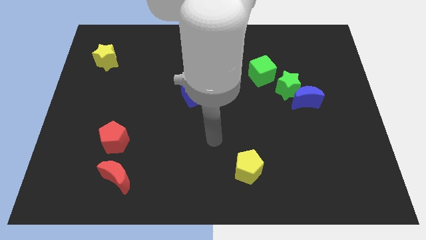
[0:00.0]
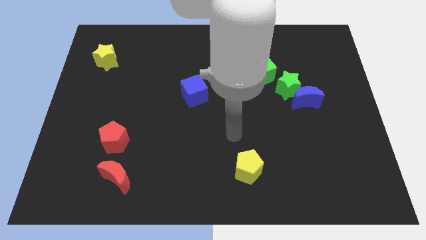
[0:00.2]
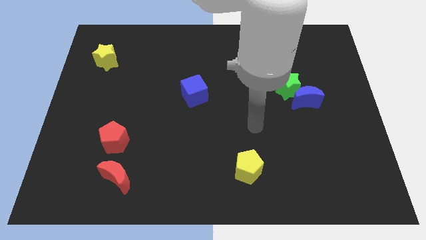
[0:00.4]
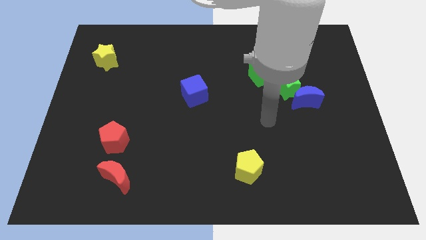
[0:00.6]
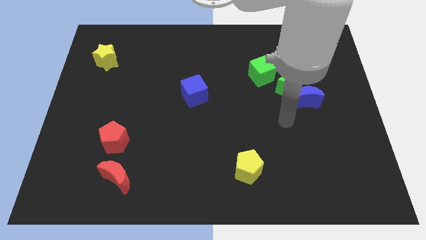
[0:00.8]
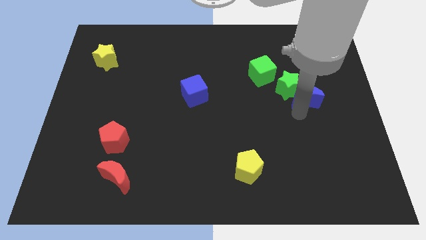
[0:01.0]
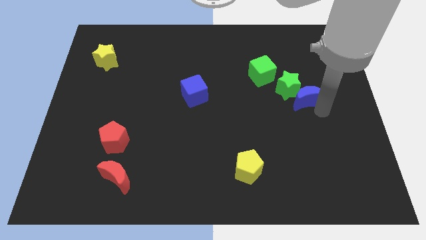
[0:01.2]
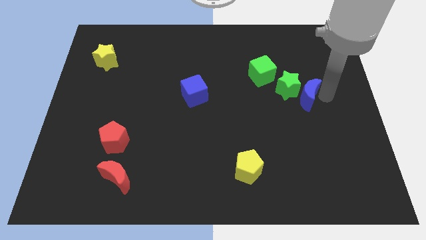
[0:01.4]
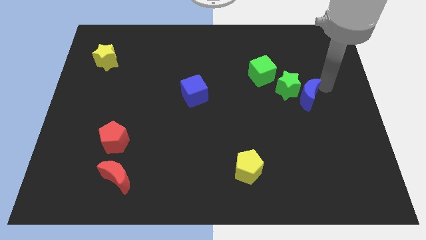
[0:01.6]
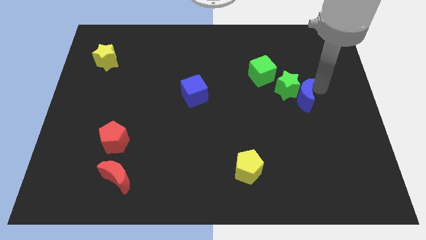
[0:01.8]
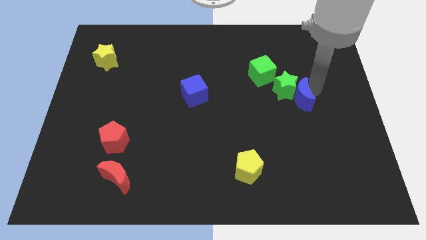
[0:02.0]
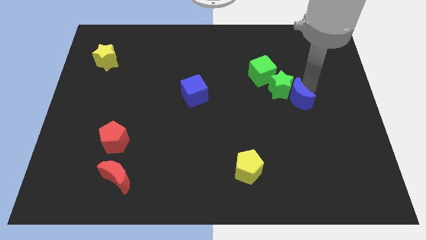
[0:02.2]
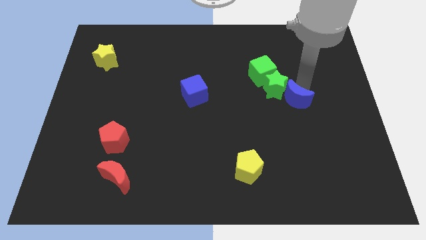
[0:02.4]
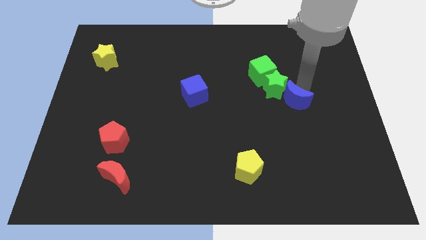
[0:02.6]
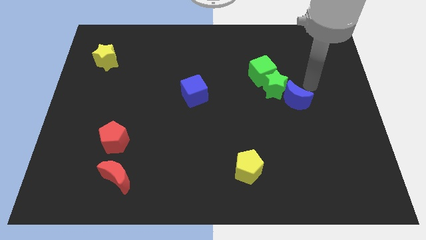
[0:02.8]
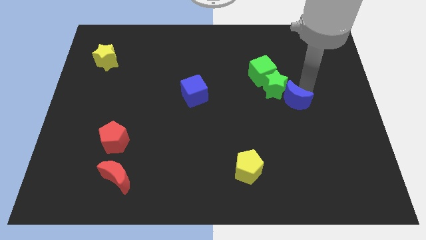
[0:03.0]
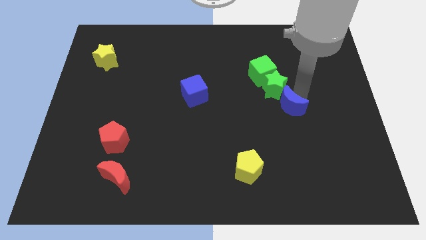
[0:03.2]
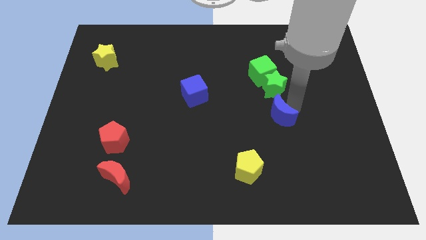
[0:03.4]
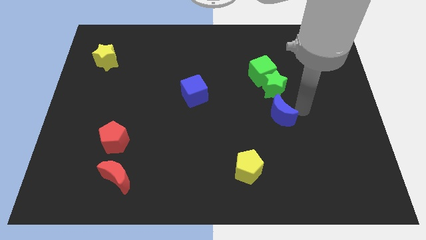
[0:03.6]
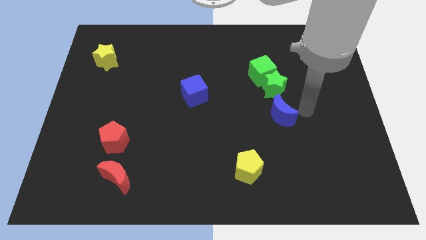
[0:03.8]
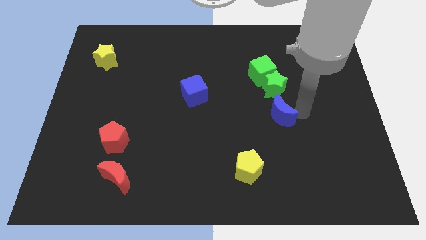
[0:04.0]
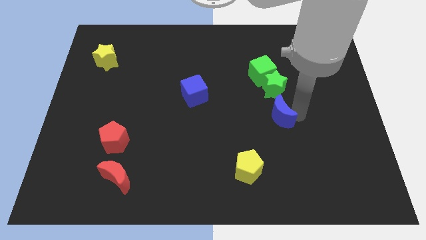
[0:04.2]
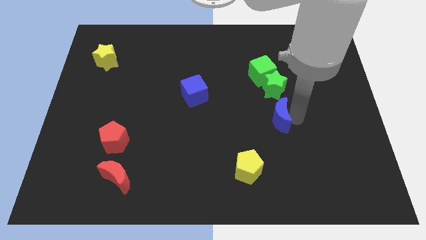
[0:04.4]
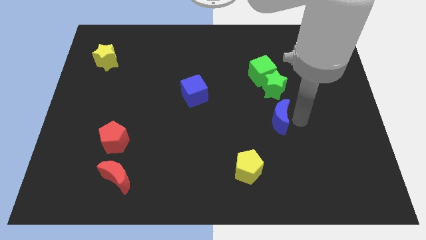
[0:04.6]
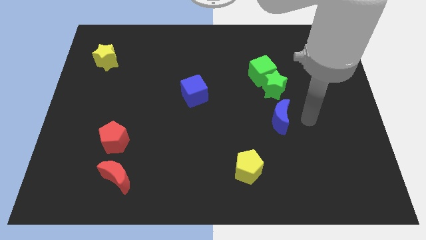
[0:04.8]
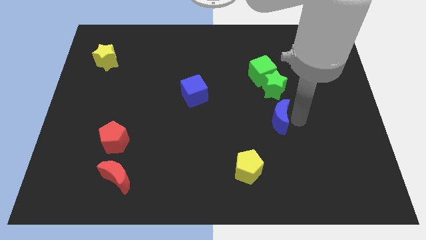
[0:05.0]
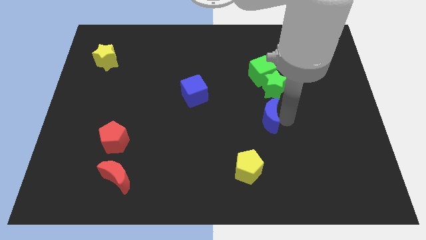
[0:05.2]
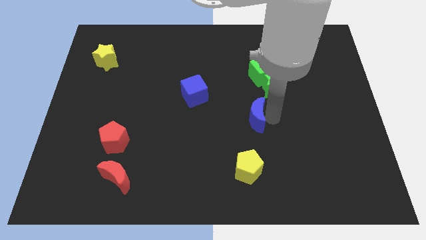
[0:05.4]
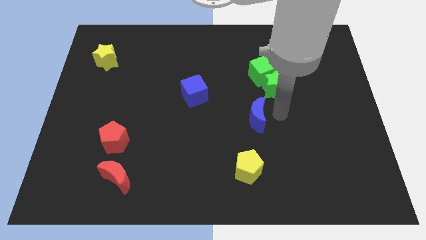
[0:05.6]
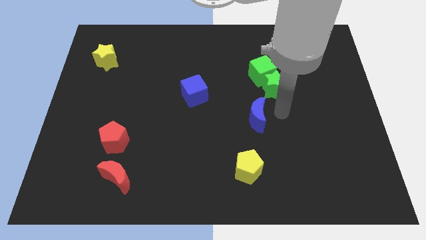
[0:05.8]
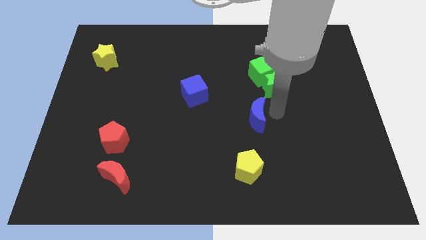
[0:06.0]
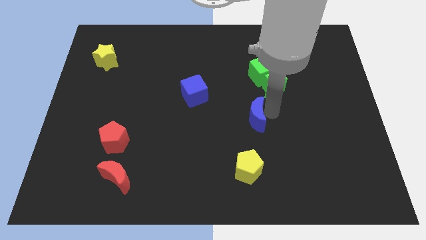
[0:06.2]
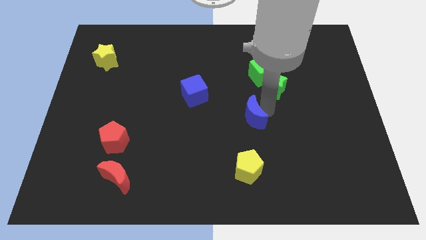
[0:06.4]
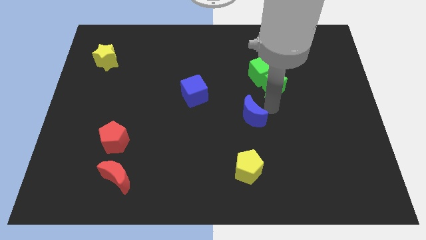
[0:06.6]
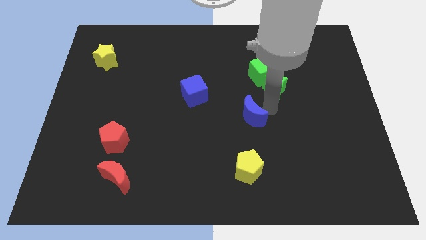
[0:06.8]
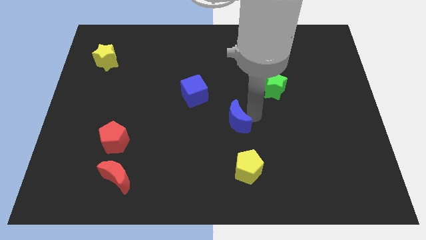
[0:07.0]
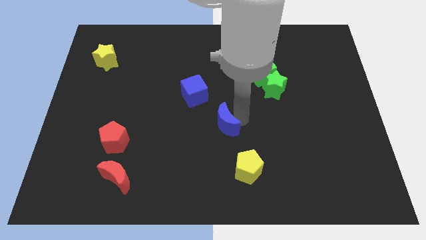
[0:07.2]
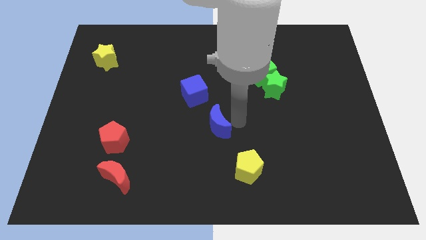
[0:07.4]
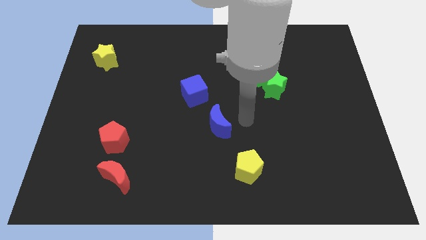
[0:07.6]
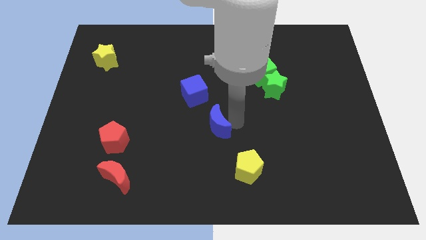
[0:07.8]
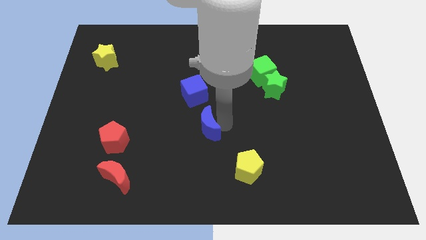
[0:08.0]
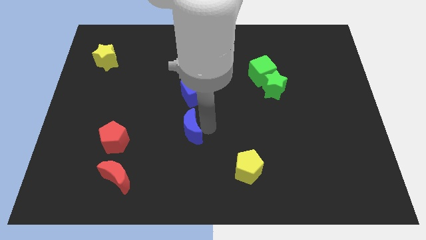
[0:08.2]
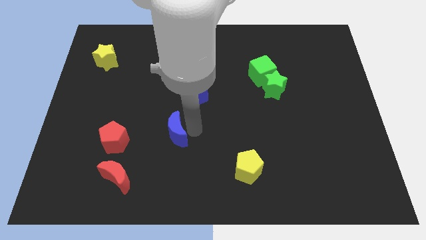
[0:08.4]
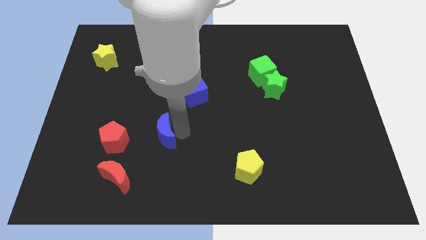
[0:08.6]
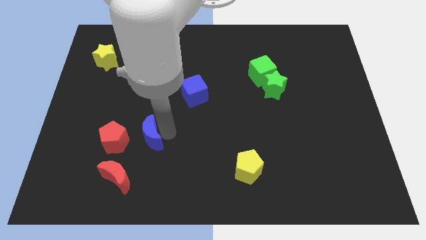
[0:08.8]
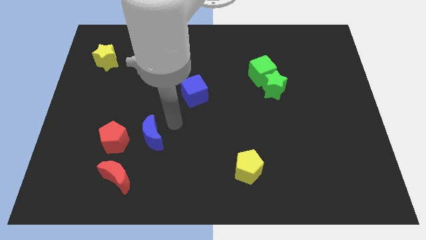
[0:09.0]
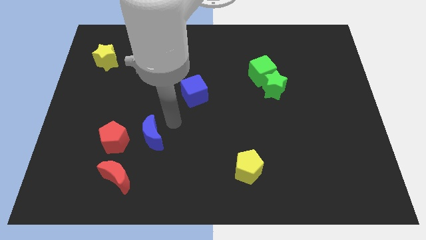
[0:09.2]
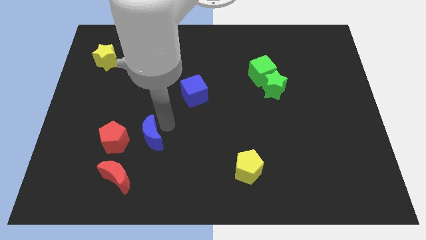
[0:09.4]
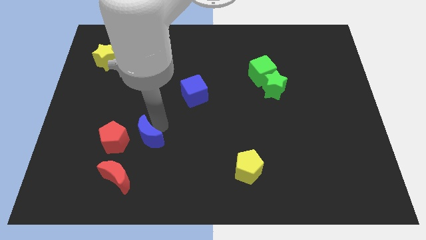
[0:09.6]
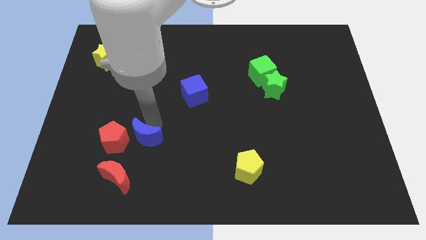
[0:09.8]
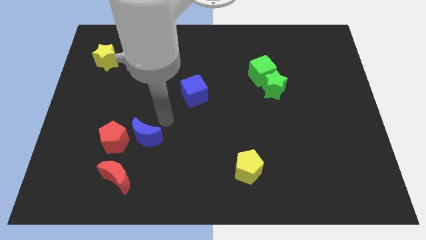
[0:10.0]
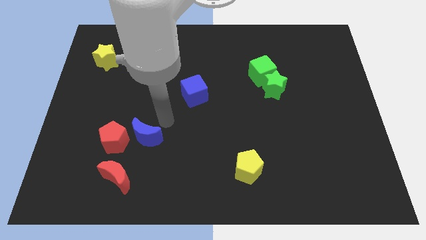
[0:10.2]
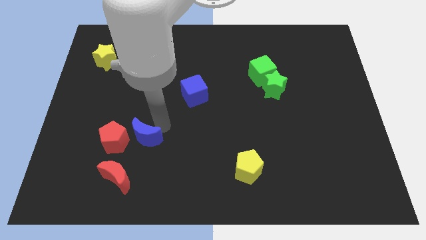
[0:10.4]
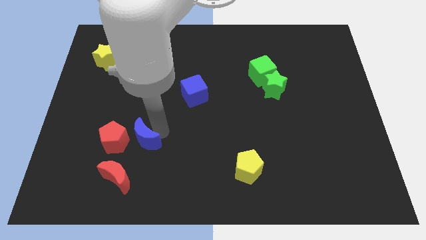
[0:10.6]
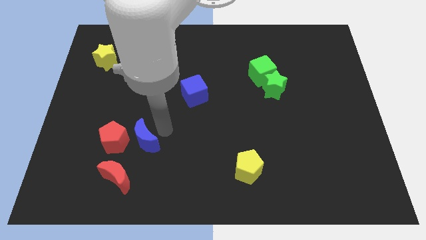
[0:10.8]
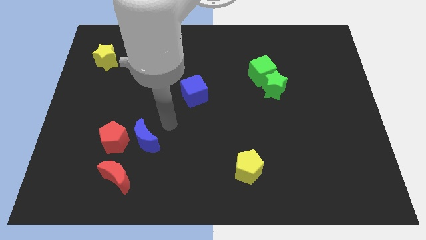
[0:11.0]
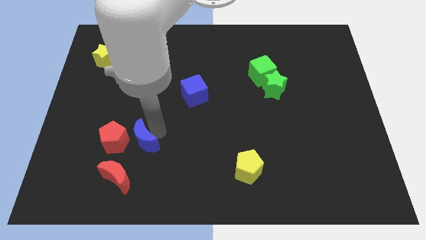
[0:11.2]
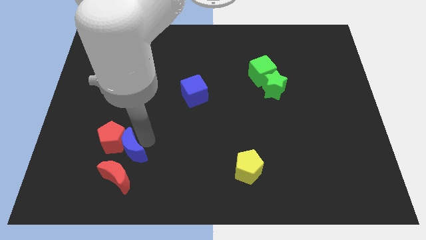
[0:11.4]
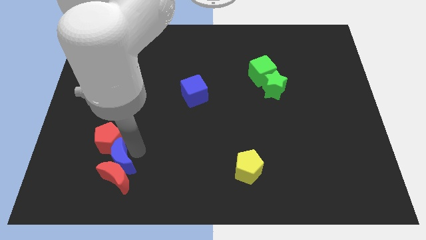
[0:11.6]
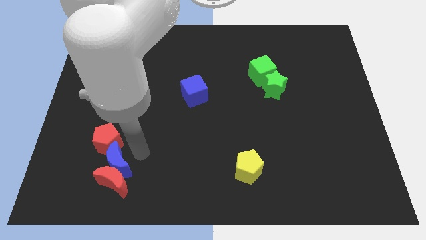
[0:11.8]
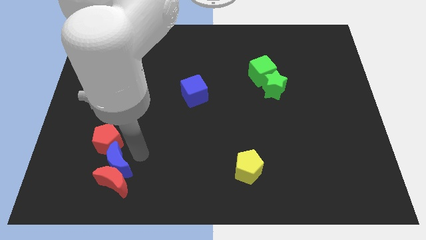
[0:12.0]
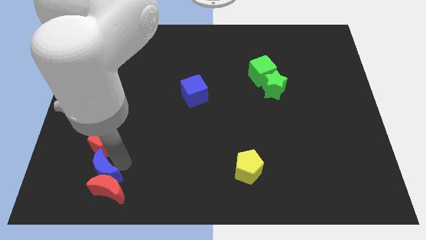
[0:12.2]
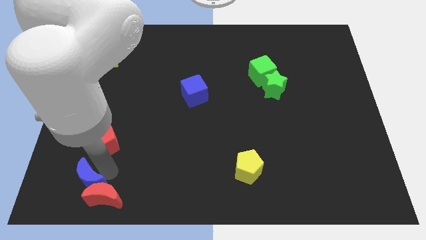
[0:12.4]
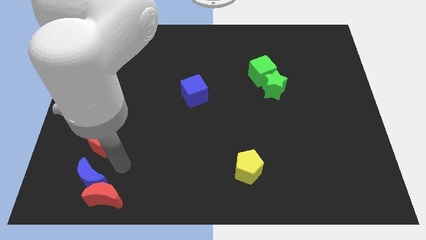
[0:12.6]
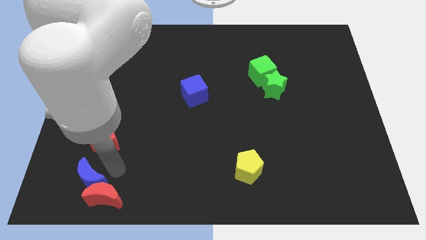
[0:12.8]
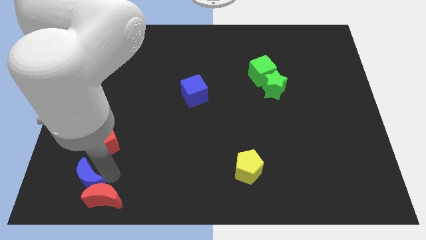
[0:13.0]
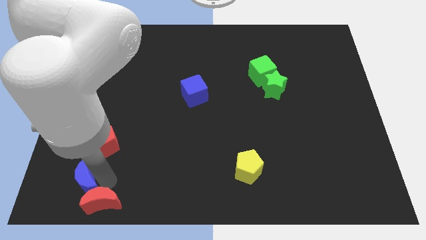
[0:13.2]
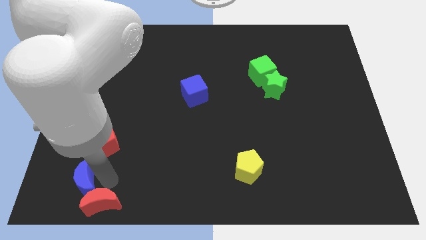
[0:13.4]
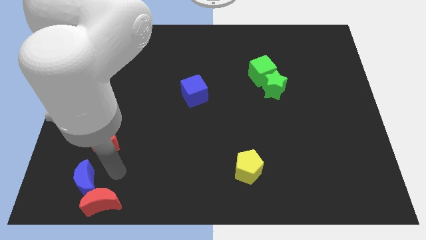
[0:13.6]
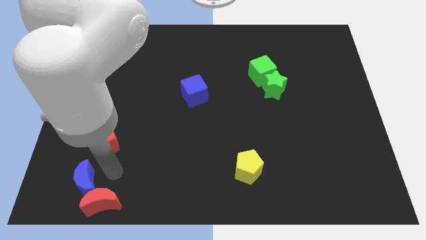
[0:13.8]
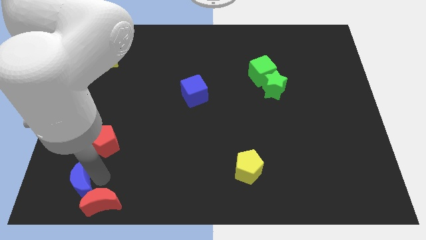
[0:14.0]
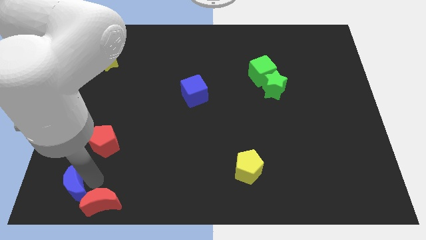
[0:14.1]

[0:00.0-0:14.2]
put the blue moon to the bottom left of the board
